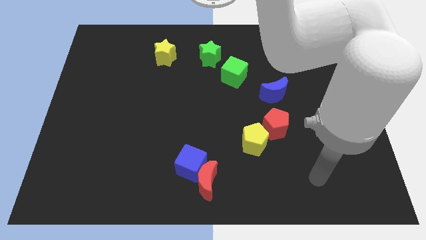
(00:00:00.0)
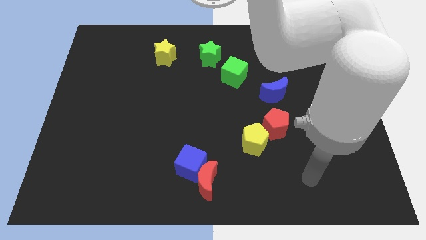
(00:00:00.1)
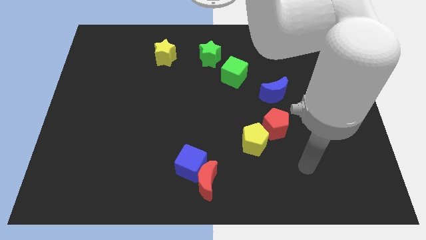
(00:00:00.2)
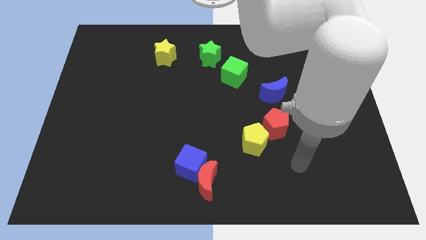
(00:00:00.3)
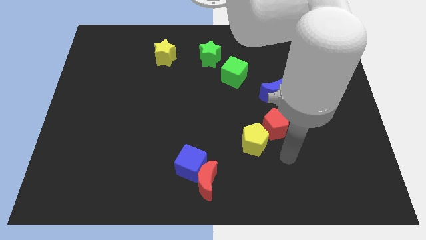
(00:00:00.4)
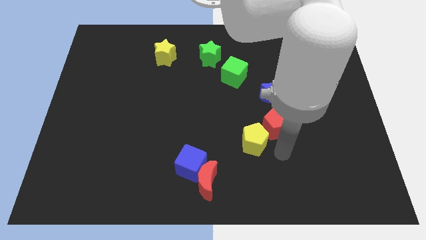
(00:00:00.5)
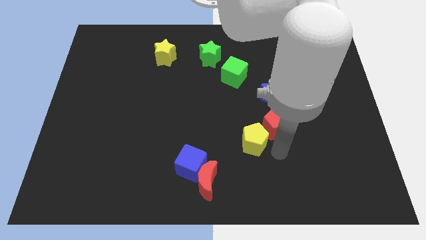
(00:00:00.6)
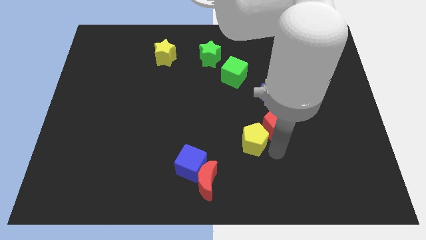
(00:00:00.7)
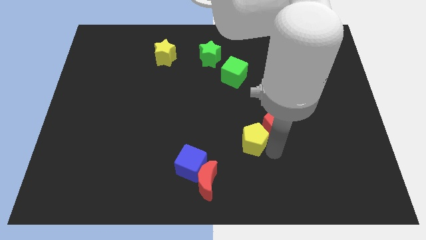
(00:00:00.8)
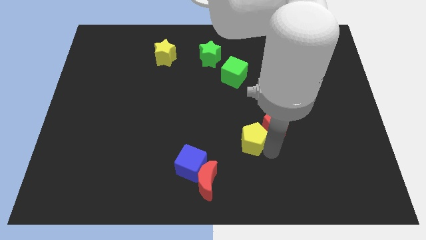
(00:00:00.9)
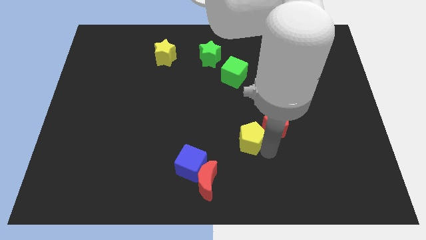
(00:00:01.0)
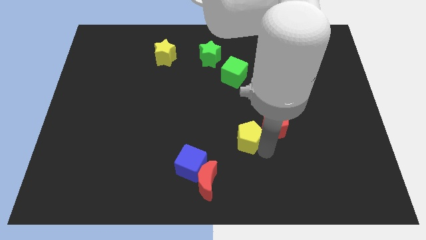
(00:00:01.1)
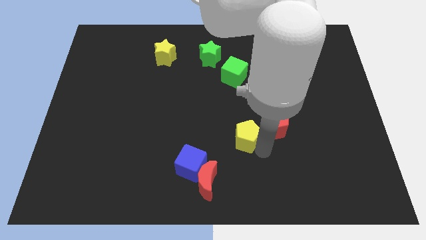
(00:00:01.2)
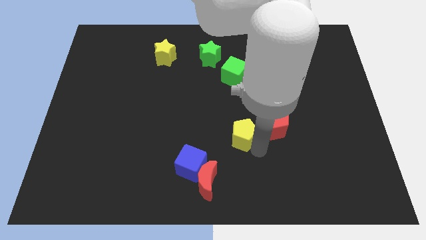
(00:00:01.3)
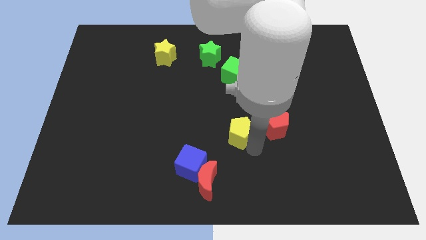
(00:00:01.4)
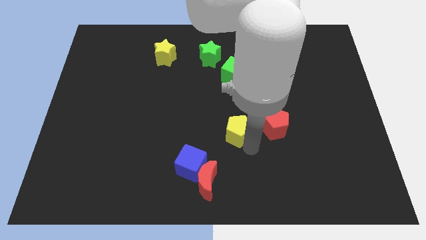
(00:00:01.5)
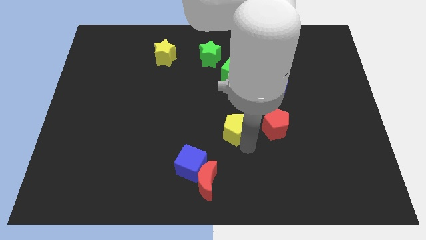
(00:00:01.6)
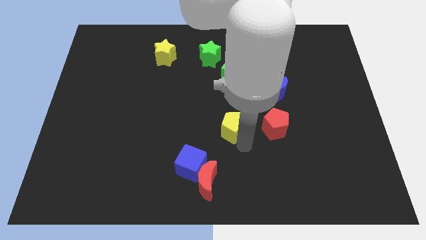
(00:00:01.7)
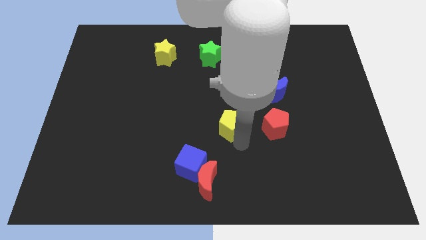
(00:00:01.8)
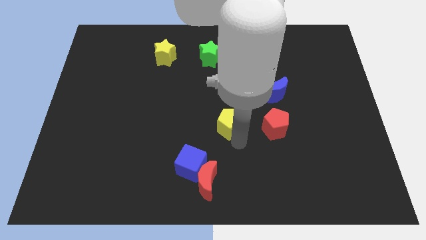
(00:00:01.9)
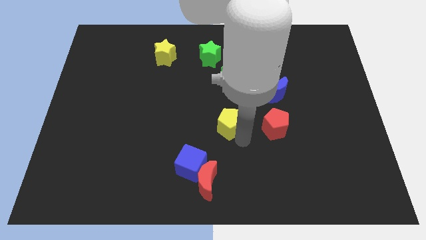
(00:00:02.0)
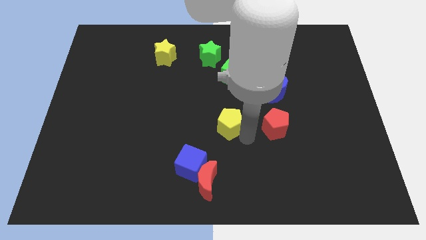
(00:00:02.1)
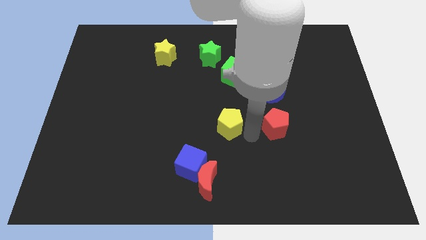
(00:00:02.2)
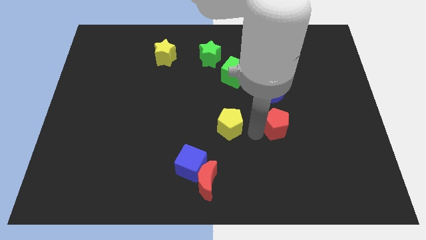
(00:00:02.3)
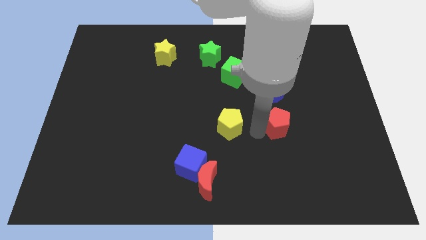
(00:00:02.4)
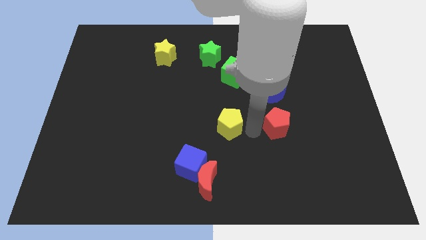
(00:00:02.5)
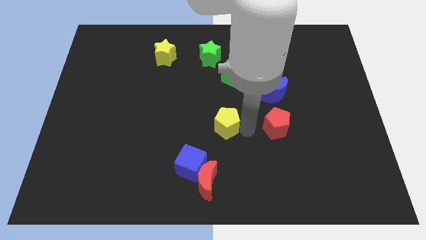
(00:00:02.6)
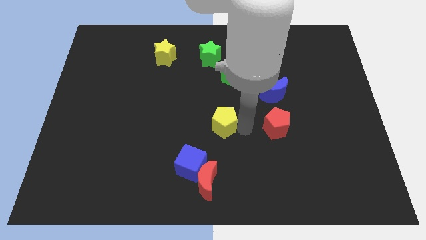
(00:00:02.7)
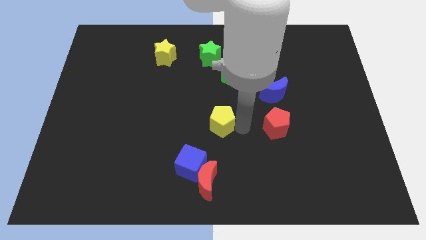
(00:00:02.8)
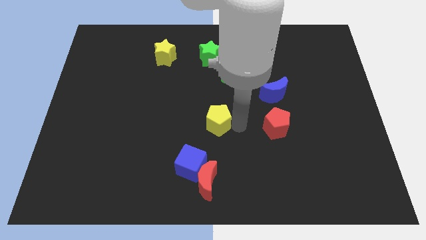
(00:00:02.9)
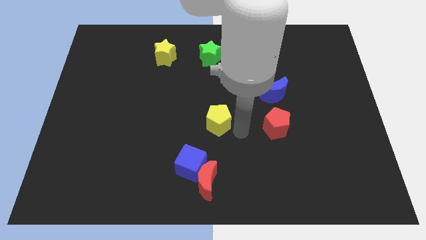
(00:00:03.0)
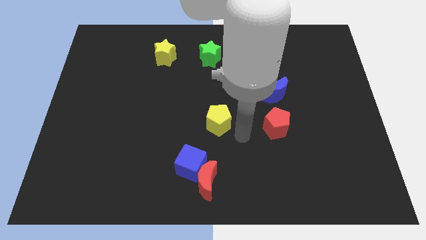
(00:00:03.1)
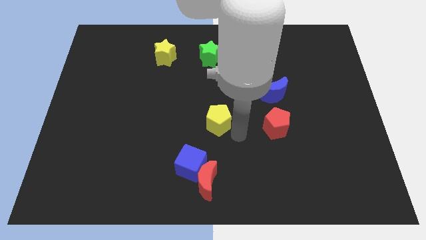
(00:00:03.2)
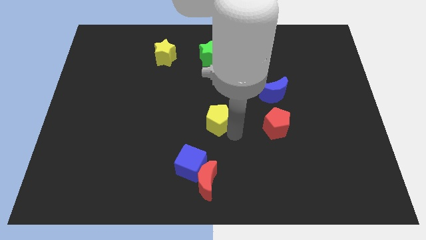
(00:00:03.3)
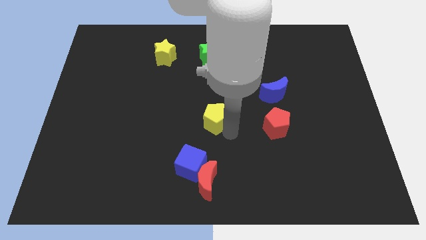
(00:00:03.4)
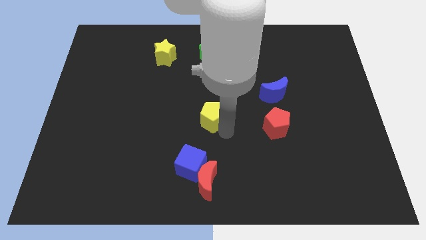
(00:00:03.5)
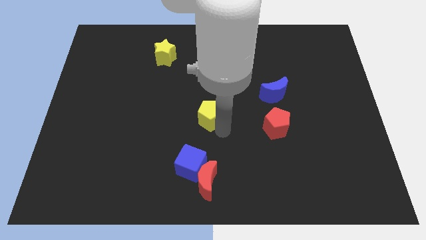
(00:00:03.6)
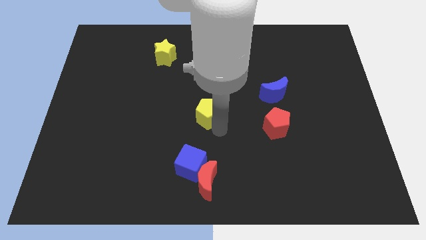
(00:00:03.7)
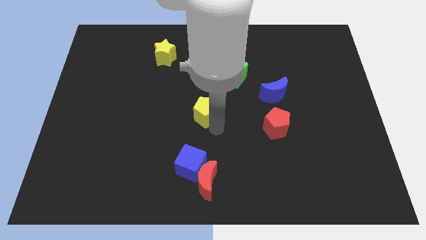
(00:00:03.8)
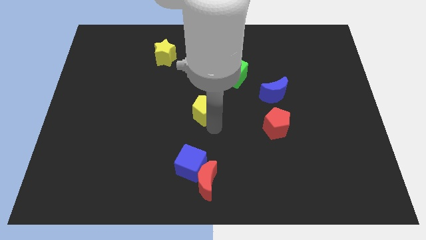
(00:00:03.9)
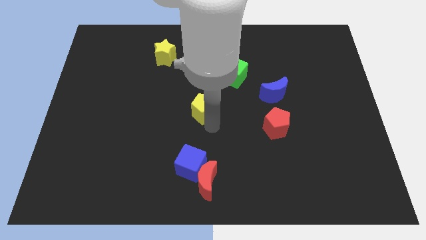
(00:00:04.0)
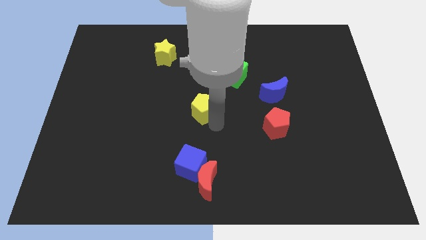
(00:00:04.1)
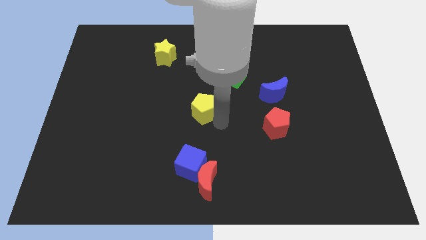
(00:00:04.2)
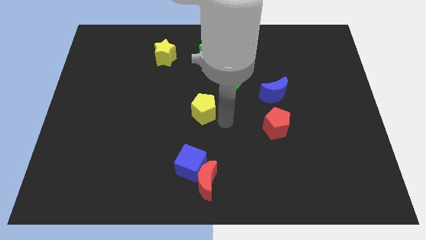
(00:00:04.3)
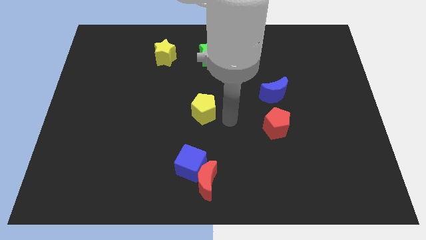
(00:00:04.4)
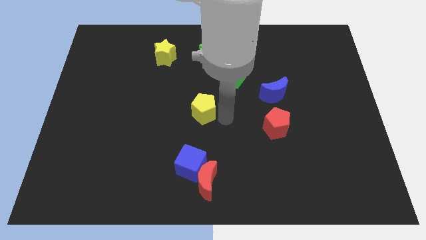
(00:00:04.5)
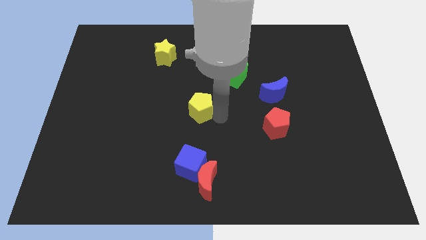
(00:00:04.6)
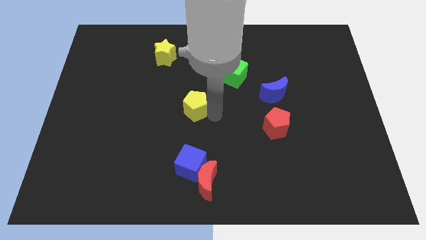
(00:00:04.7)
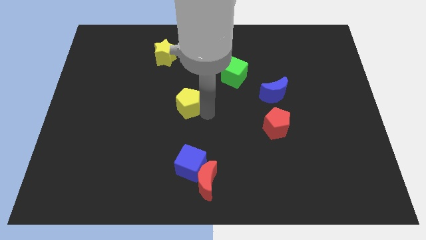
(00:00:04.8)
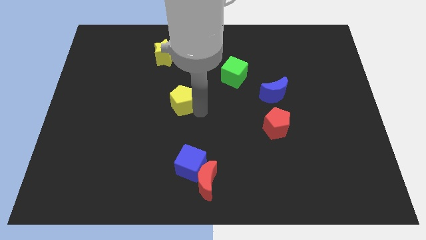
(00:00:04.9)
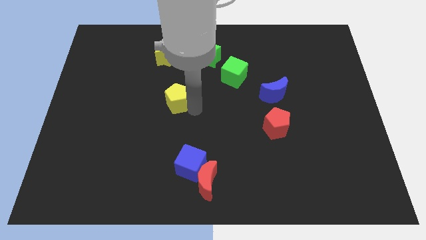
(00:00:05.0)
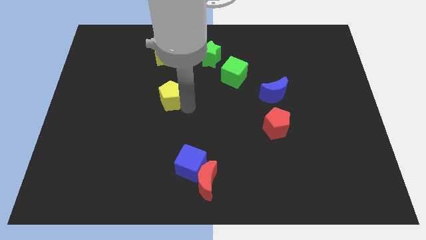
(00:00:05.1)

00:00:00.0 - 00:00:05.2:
push the yellow pentagon below the yellow star

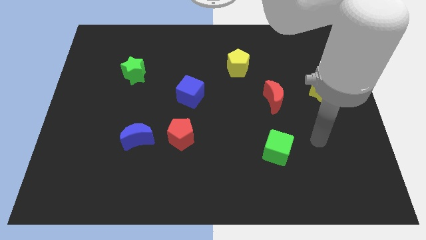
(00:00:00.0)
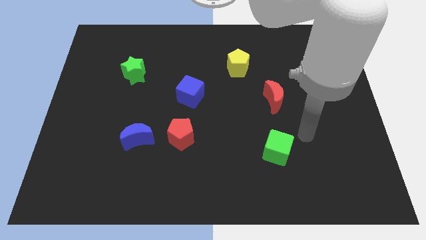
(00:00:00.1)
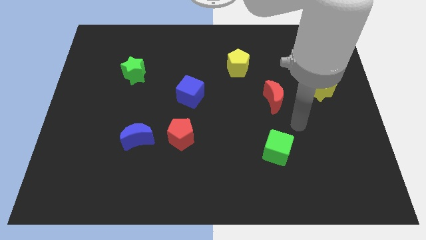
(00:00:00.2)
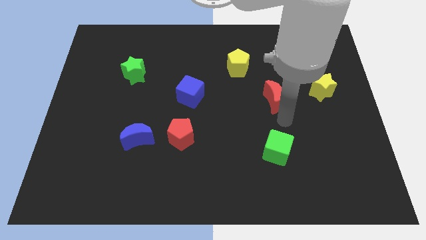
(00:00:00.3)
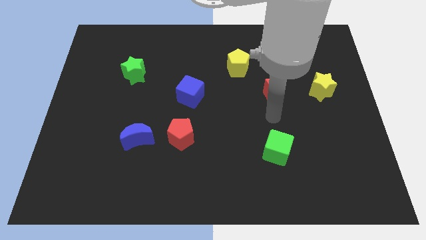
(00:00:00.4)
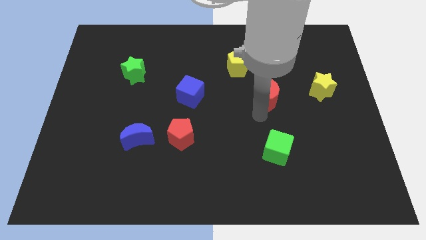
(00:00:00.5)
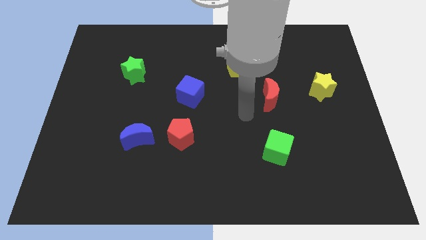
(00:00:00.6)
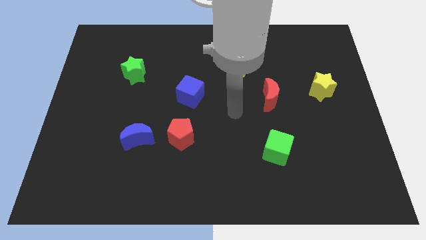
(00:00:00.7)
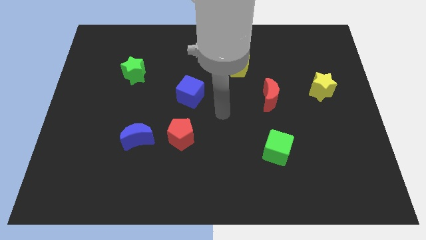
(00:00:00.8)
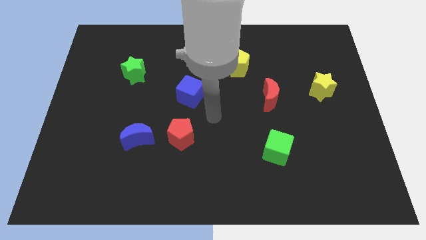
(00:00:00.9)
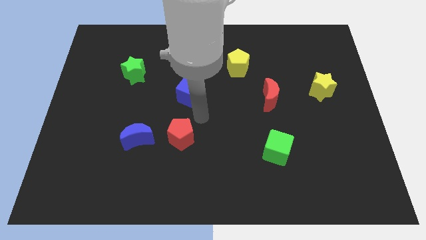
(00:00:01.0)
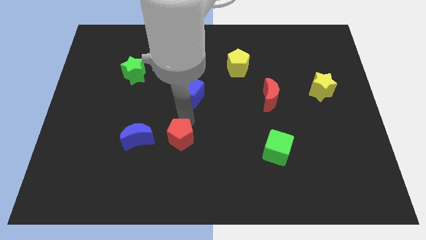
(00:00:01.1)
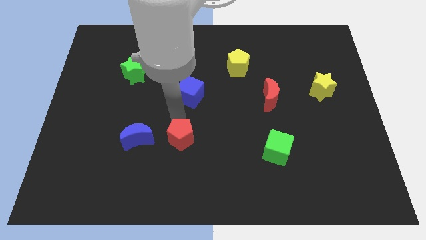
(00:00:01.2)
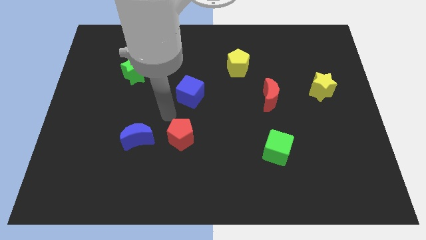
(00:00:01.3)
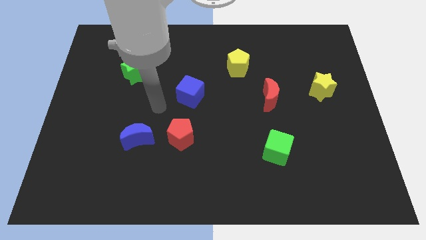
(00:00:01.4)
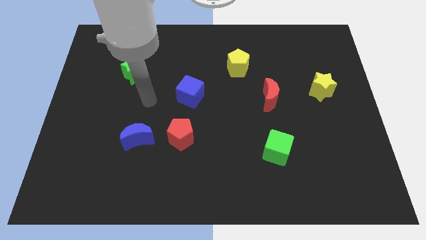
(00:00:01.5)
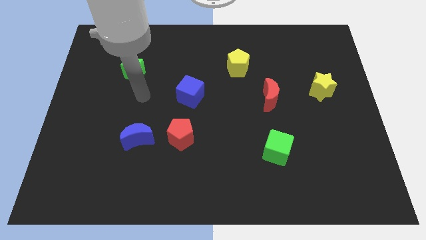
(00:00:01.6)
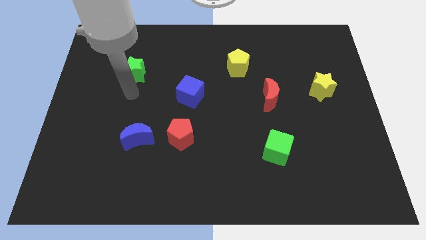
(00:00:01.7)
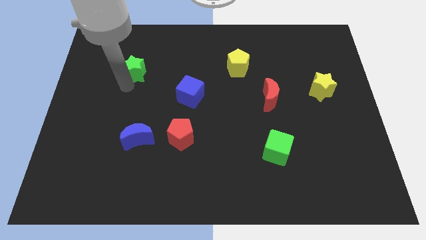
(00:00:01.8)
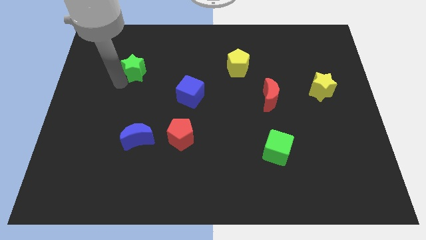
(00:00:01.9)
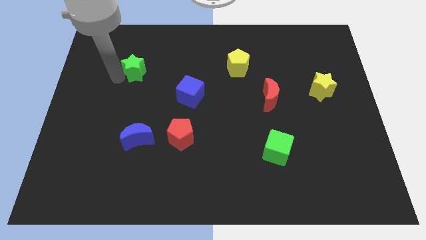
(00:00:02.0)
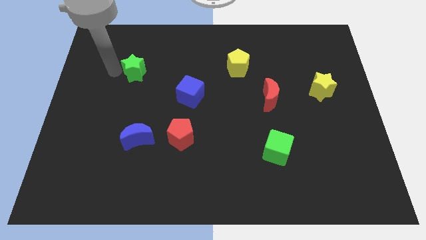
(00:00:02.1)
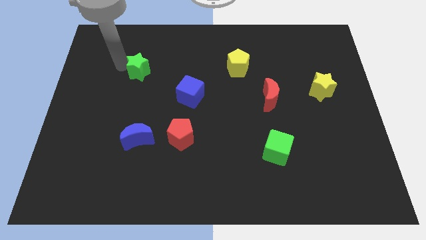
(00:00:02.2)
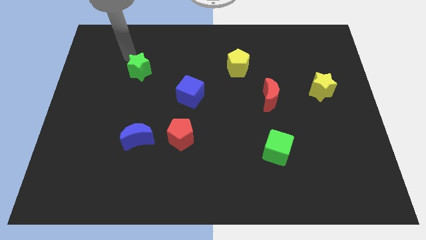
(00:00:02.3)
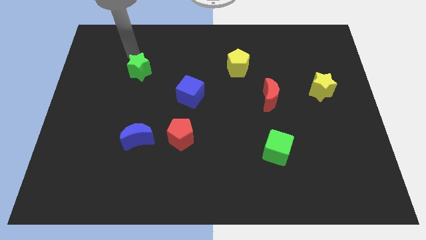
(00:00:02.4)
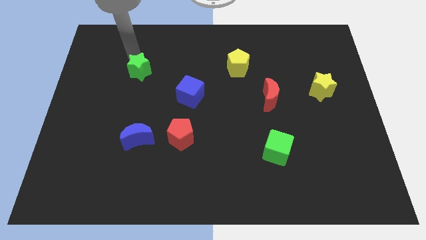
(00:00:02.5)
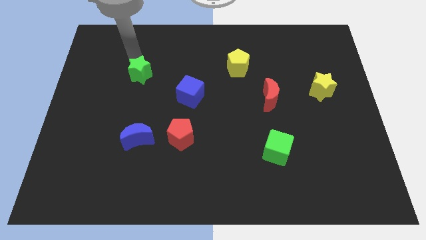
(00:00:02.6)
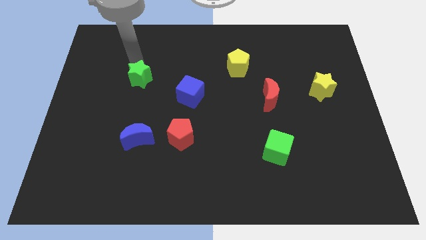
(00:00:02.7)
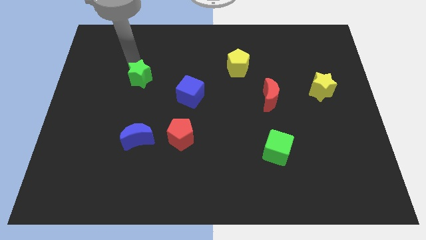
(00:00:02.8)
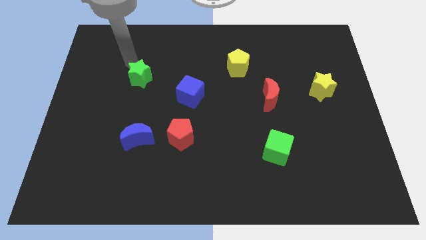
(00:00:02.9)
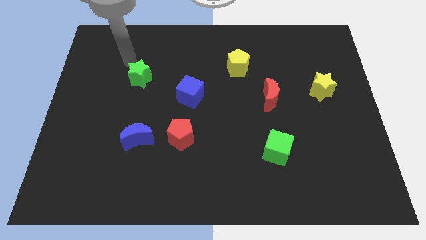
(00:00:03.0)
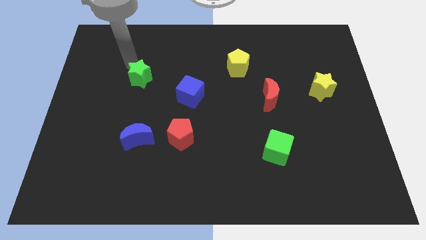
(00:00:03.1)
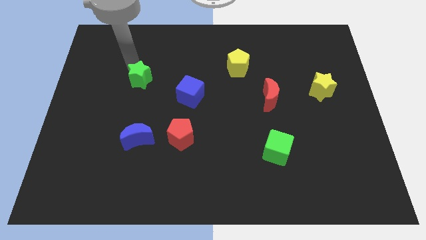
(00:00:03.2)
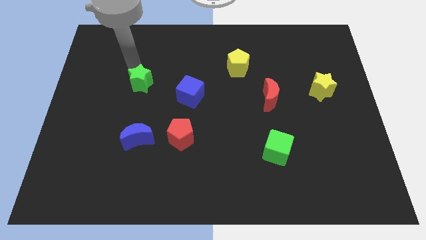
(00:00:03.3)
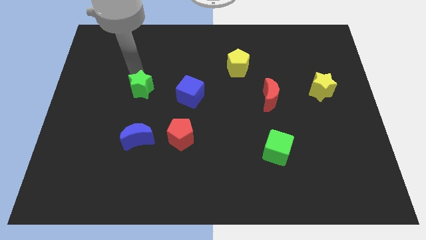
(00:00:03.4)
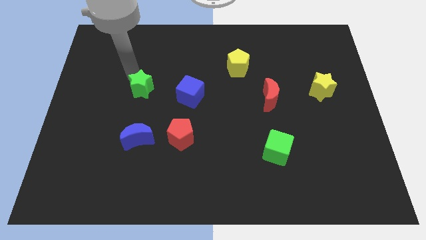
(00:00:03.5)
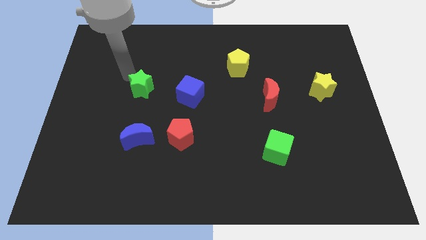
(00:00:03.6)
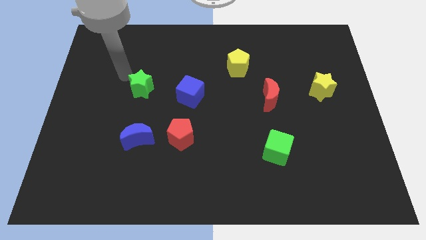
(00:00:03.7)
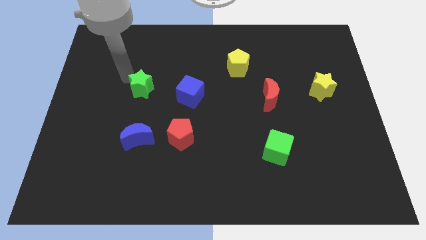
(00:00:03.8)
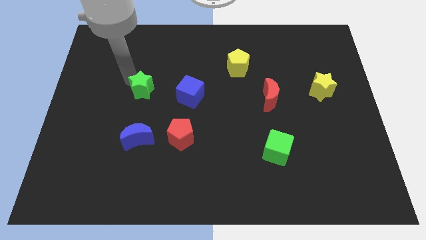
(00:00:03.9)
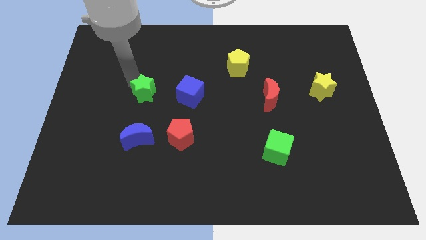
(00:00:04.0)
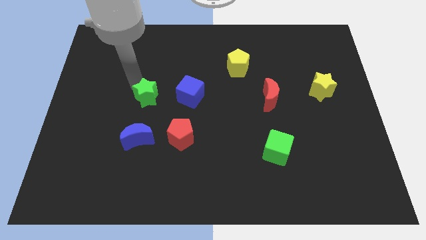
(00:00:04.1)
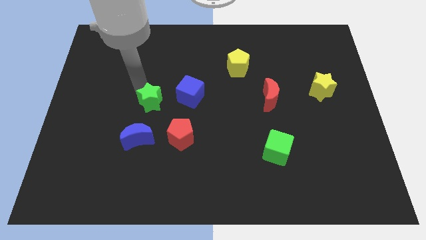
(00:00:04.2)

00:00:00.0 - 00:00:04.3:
slide the green star to the top left of the red pentagon
